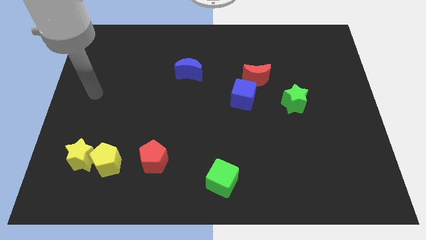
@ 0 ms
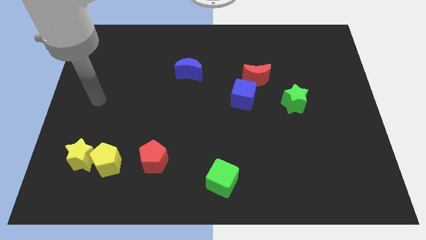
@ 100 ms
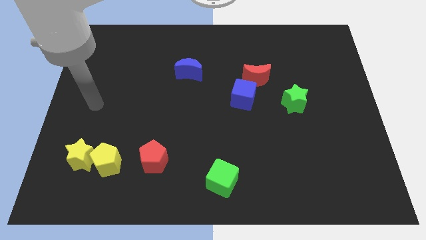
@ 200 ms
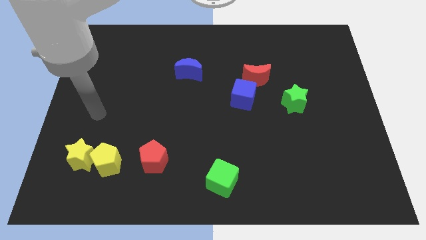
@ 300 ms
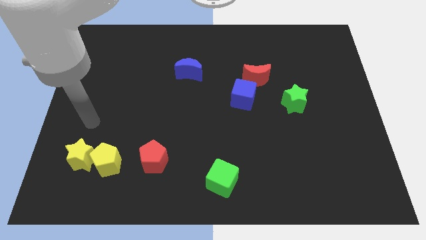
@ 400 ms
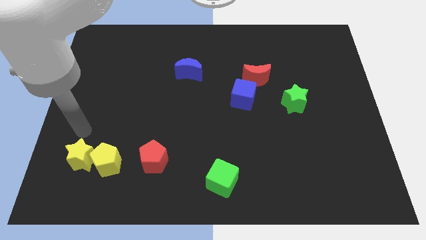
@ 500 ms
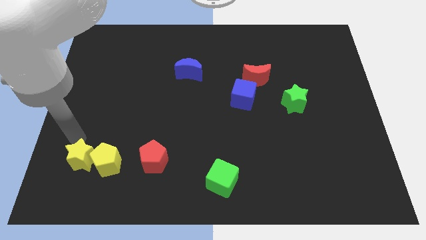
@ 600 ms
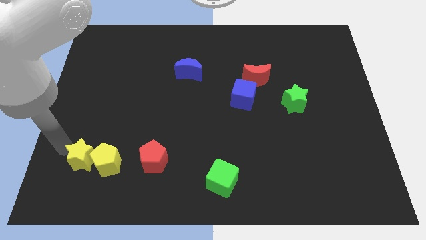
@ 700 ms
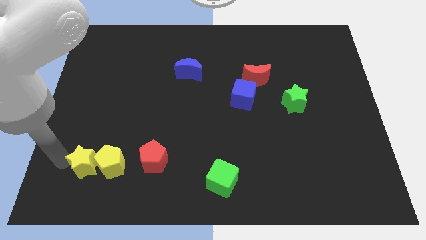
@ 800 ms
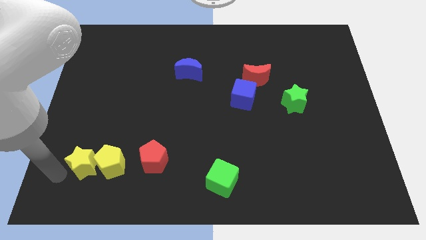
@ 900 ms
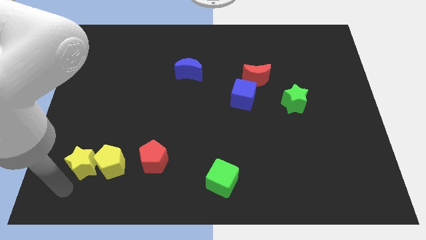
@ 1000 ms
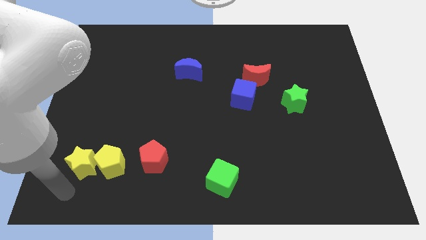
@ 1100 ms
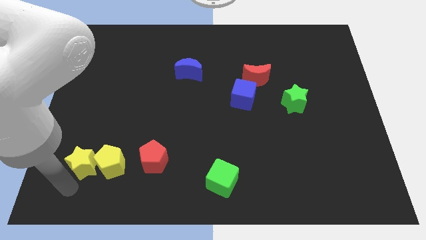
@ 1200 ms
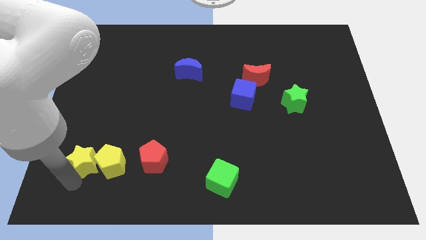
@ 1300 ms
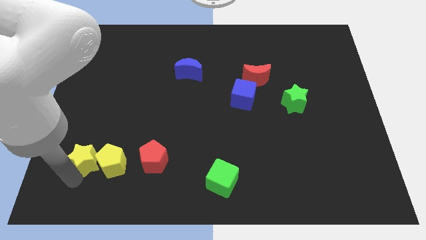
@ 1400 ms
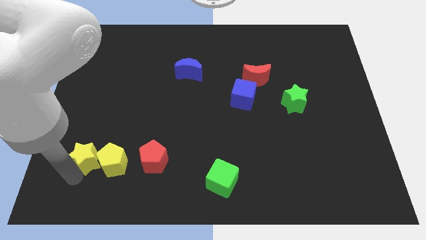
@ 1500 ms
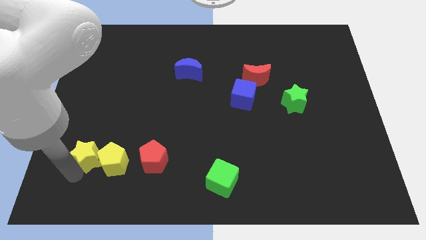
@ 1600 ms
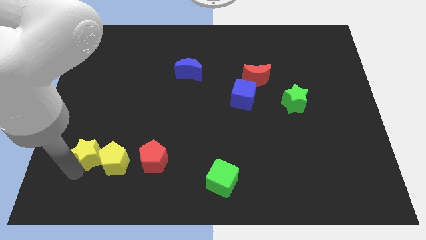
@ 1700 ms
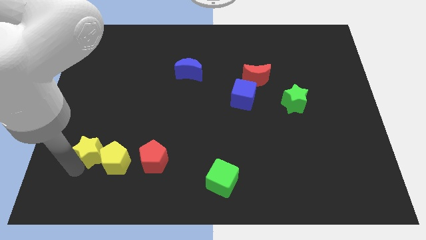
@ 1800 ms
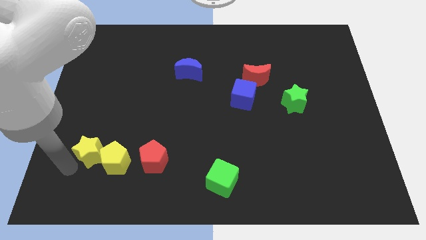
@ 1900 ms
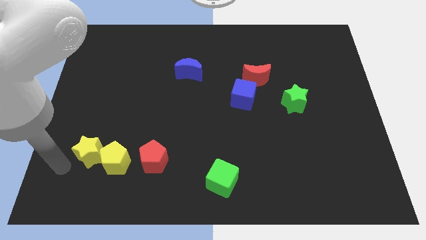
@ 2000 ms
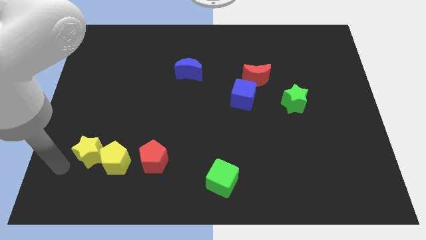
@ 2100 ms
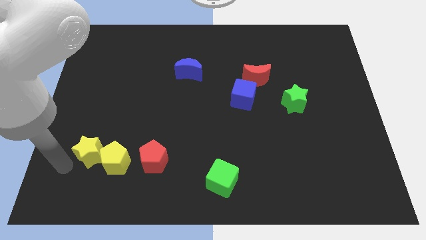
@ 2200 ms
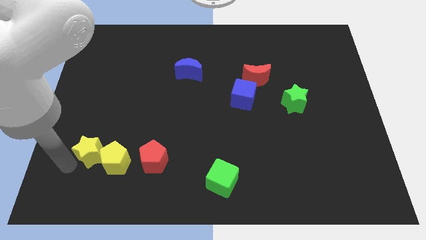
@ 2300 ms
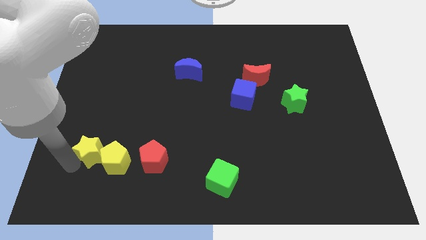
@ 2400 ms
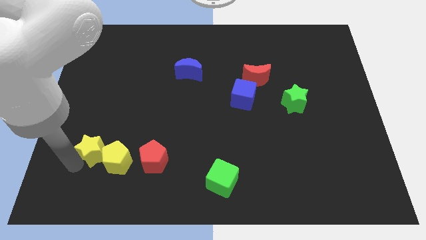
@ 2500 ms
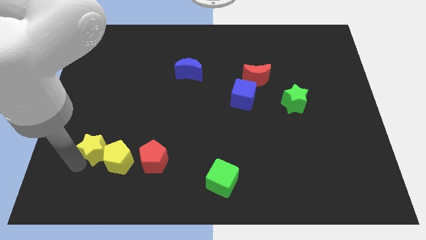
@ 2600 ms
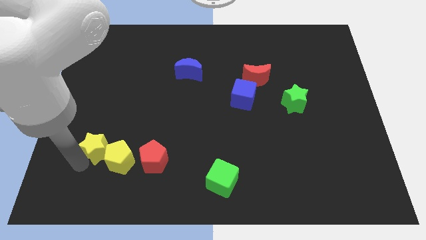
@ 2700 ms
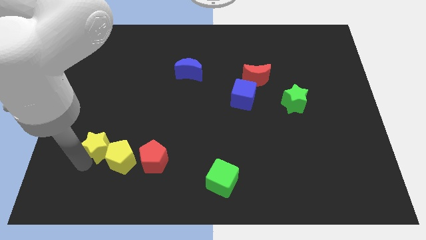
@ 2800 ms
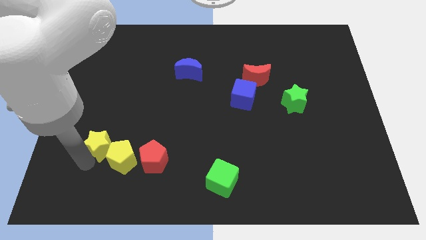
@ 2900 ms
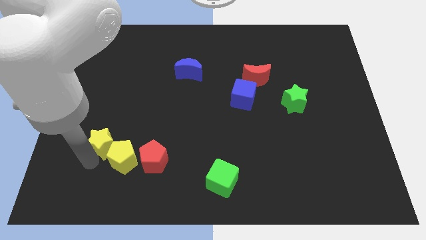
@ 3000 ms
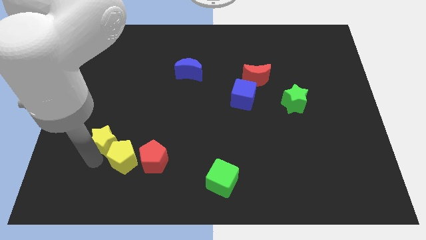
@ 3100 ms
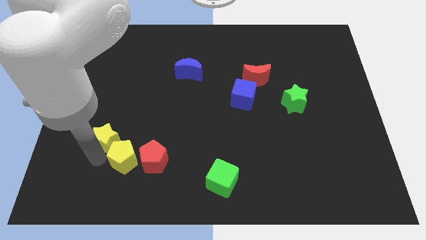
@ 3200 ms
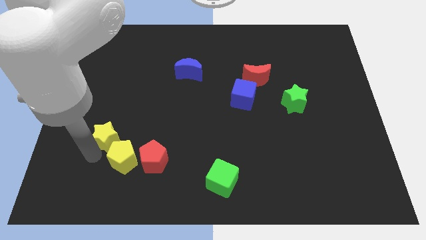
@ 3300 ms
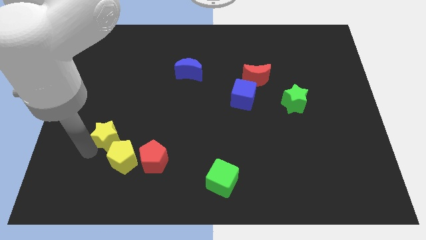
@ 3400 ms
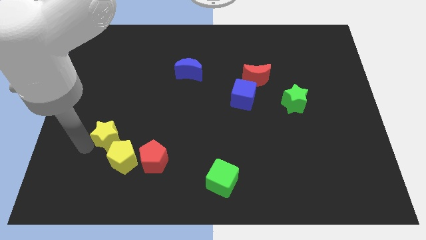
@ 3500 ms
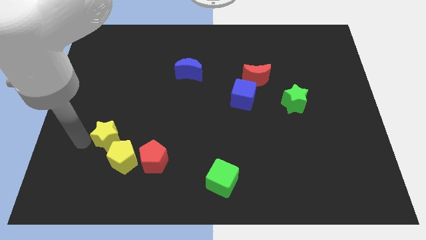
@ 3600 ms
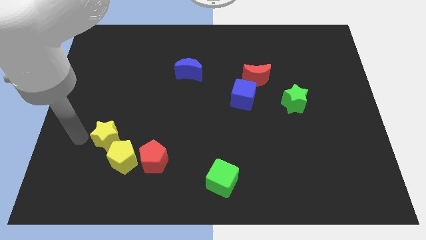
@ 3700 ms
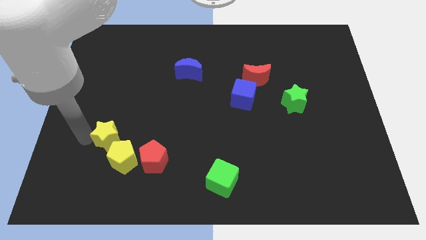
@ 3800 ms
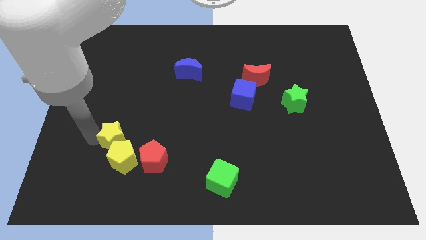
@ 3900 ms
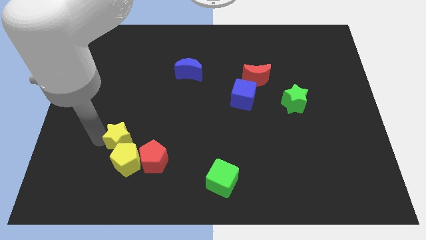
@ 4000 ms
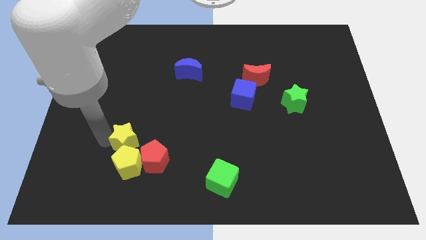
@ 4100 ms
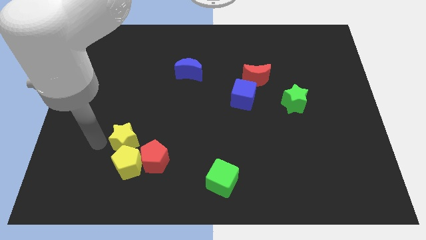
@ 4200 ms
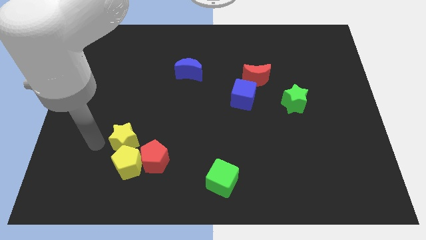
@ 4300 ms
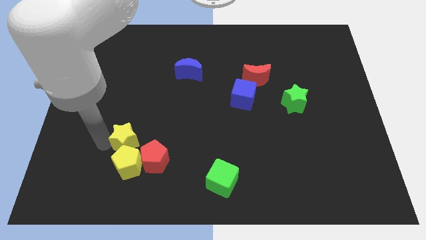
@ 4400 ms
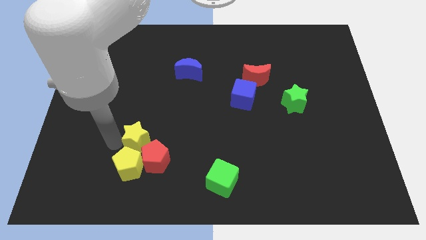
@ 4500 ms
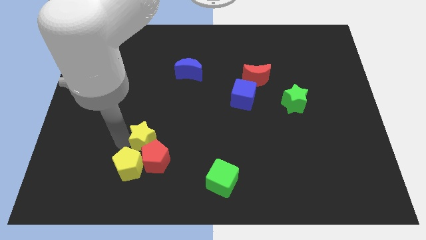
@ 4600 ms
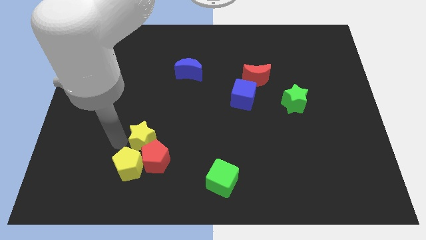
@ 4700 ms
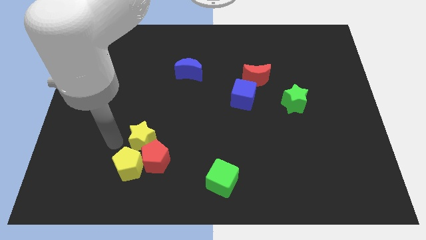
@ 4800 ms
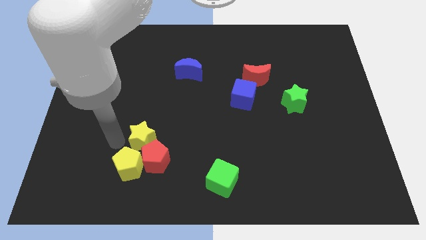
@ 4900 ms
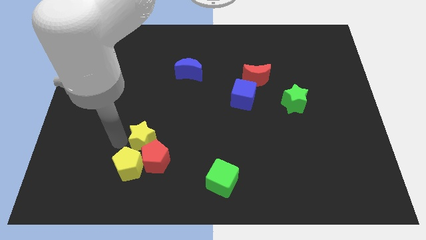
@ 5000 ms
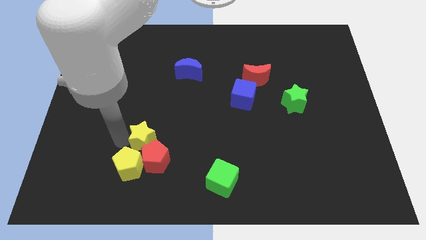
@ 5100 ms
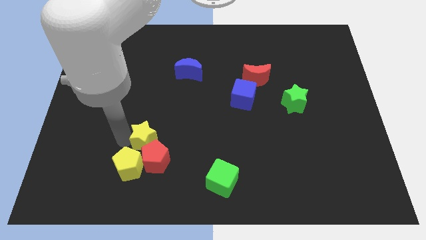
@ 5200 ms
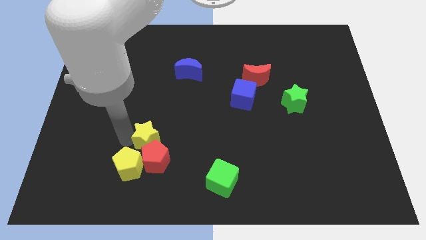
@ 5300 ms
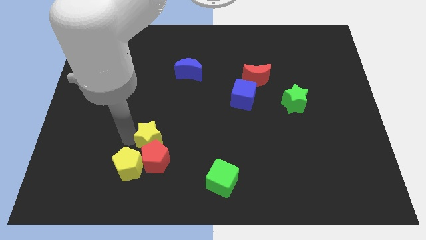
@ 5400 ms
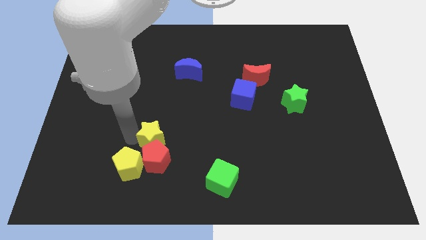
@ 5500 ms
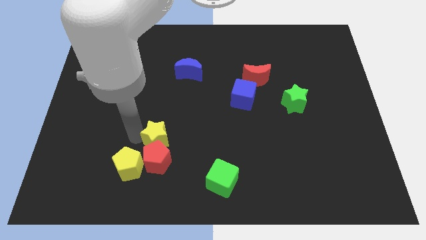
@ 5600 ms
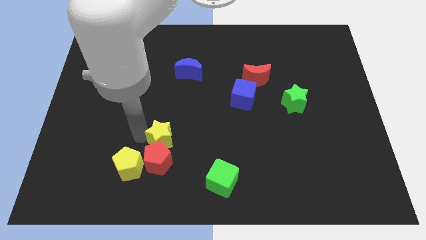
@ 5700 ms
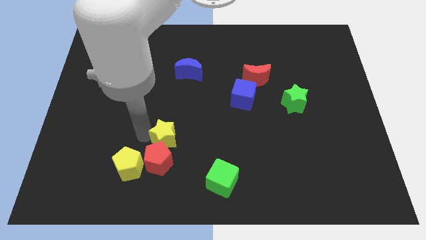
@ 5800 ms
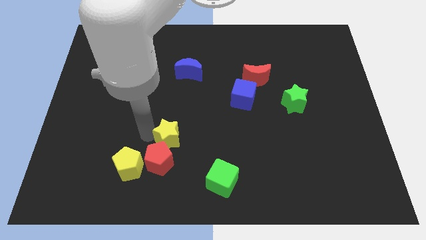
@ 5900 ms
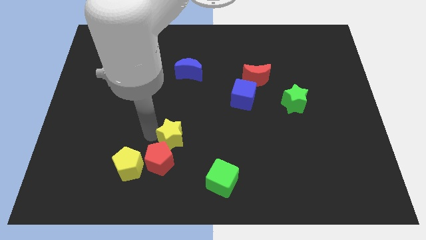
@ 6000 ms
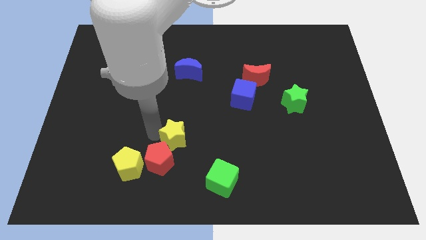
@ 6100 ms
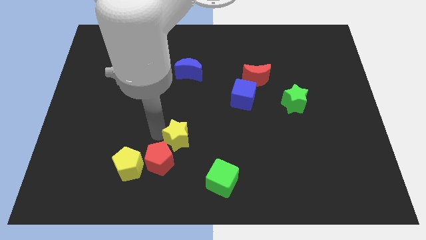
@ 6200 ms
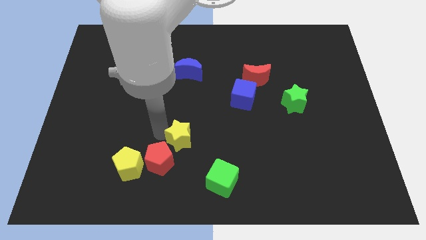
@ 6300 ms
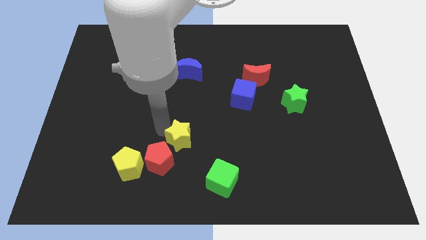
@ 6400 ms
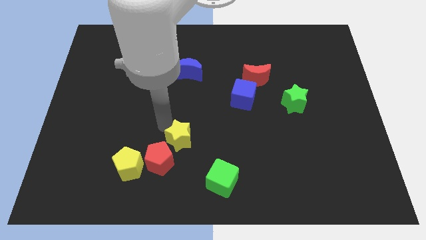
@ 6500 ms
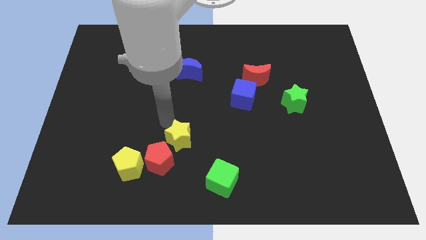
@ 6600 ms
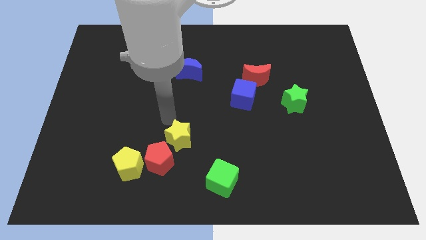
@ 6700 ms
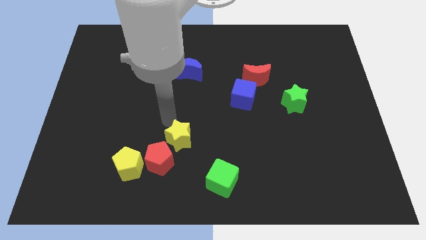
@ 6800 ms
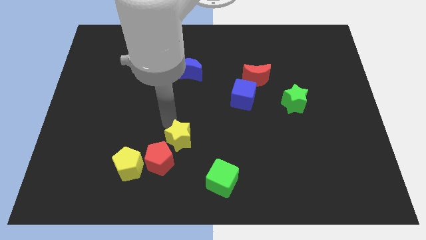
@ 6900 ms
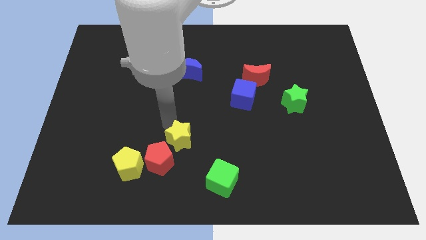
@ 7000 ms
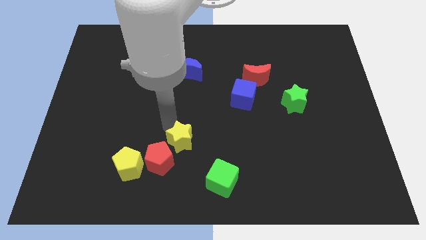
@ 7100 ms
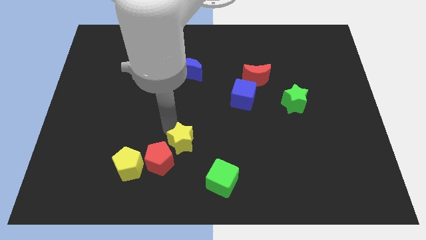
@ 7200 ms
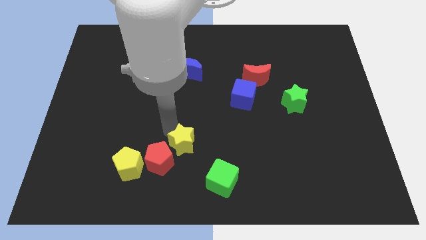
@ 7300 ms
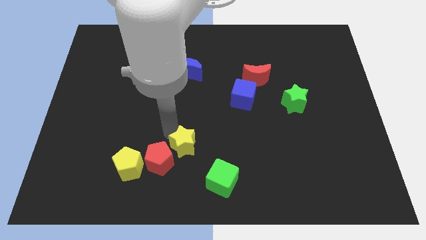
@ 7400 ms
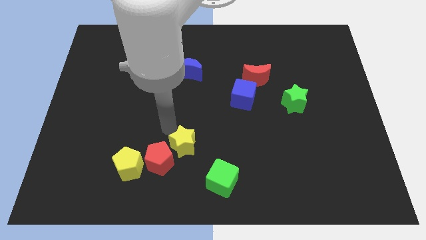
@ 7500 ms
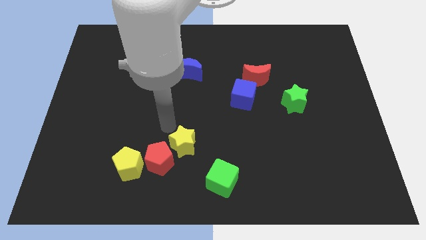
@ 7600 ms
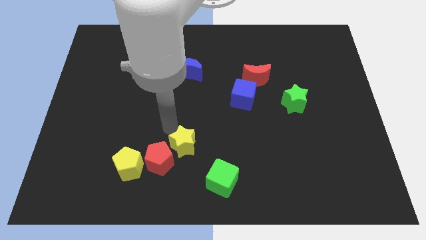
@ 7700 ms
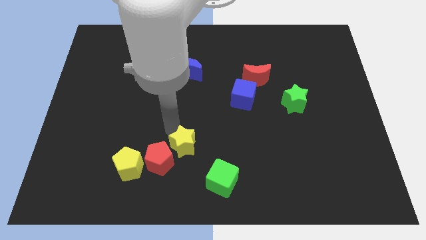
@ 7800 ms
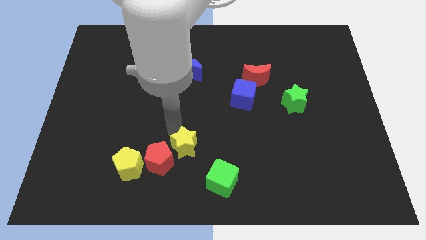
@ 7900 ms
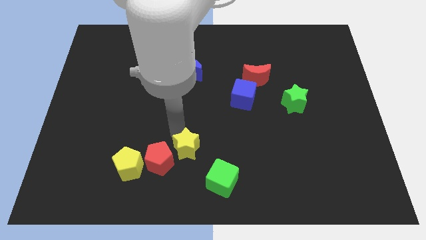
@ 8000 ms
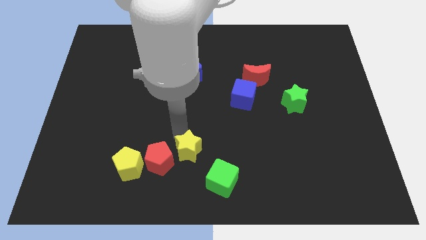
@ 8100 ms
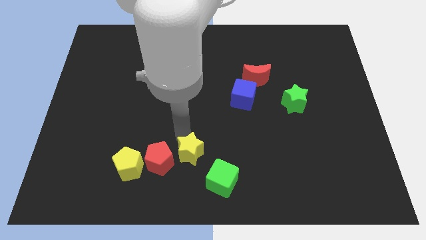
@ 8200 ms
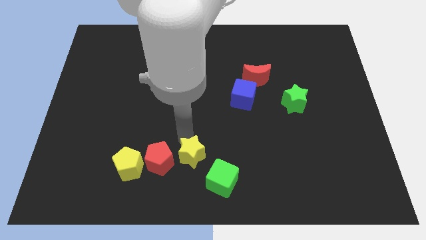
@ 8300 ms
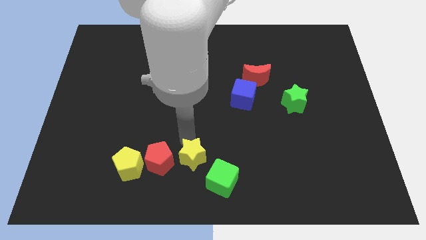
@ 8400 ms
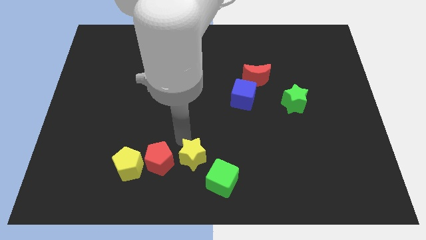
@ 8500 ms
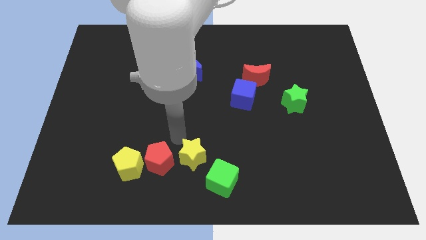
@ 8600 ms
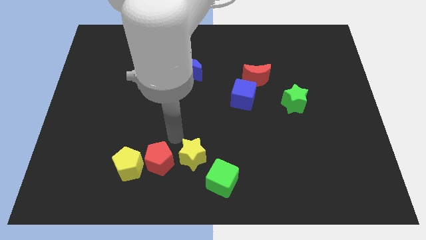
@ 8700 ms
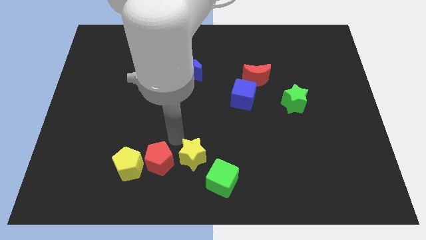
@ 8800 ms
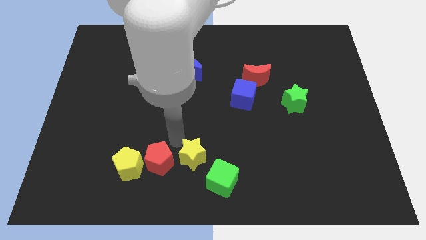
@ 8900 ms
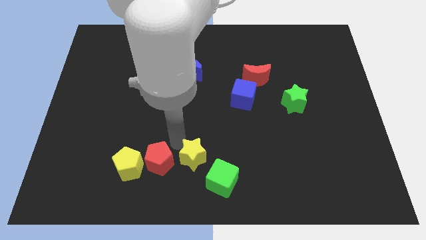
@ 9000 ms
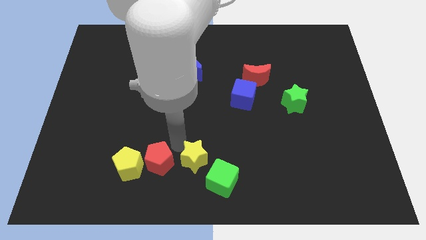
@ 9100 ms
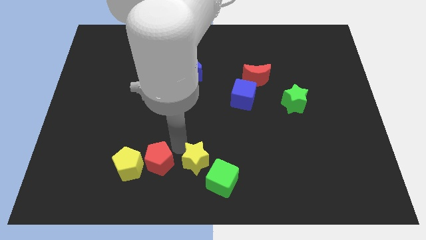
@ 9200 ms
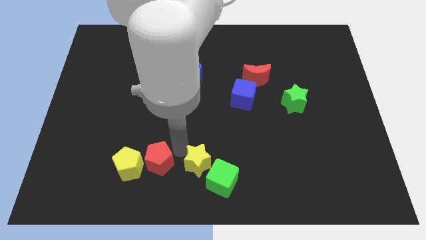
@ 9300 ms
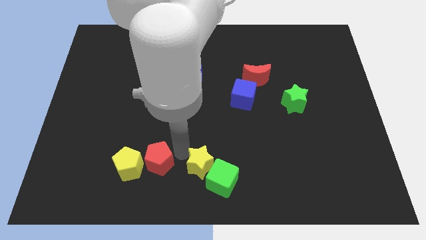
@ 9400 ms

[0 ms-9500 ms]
put the yellow star next to the green cube
